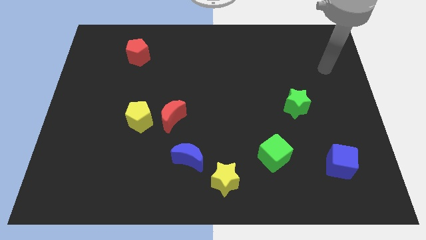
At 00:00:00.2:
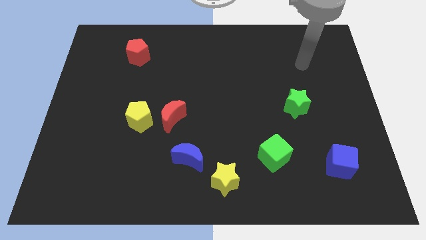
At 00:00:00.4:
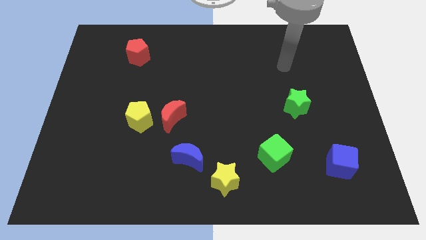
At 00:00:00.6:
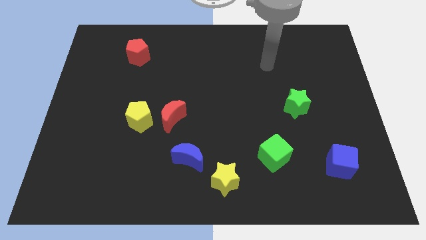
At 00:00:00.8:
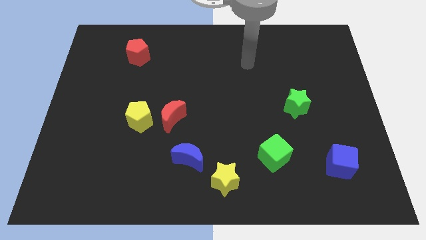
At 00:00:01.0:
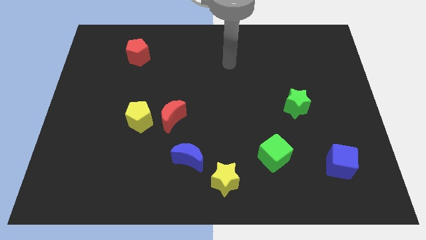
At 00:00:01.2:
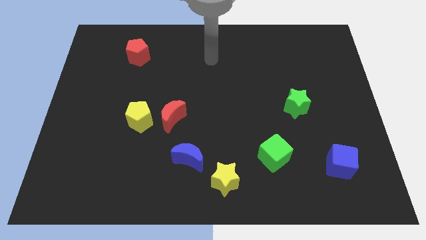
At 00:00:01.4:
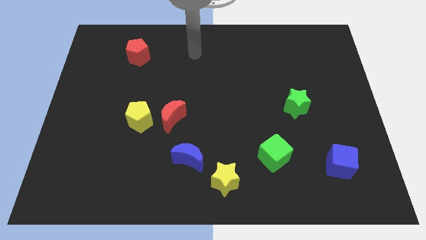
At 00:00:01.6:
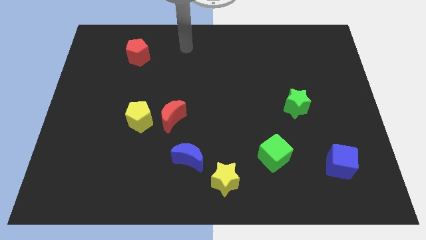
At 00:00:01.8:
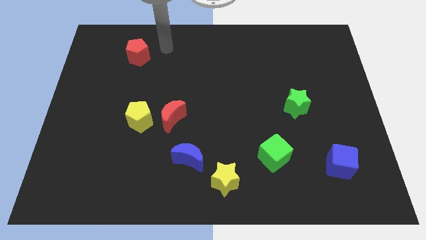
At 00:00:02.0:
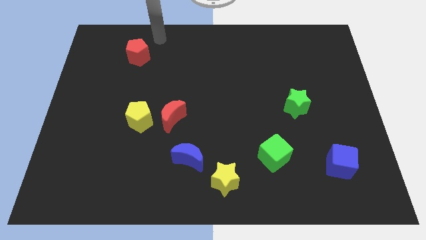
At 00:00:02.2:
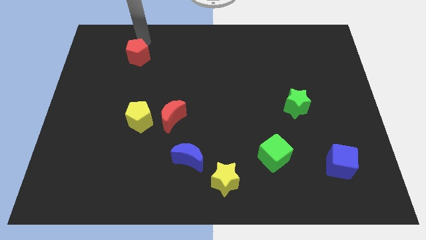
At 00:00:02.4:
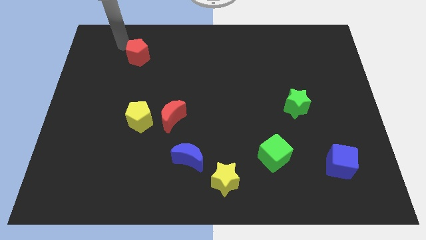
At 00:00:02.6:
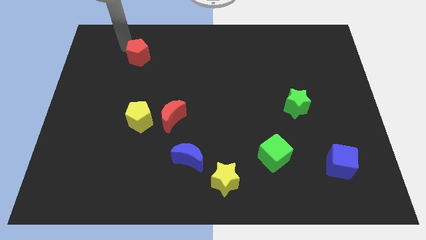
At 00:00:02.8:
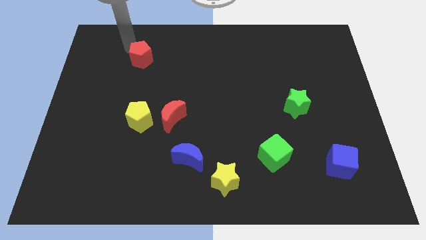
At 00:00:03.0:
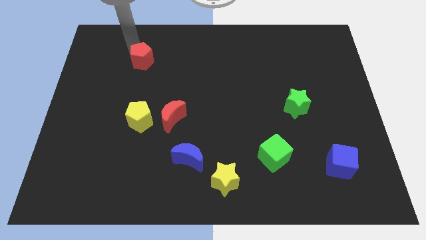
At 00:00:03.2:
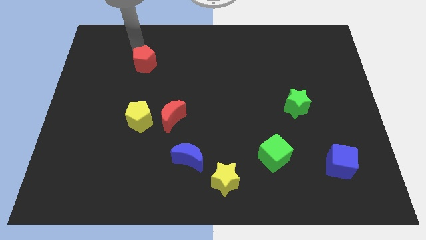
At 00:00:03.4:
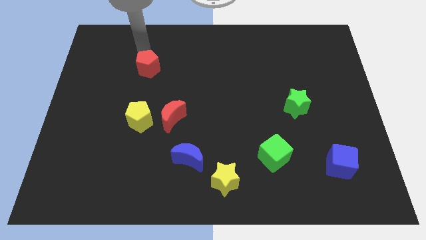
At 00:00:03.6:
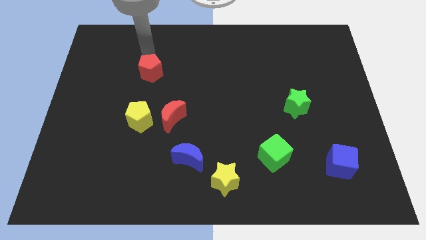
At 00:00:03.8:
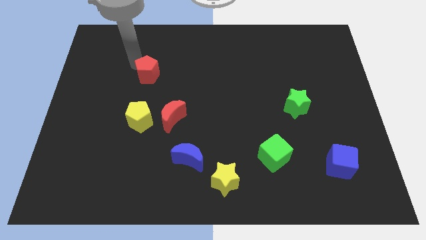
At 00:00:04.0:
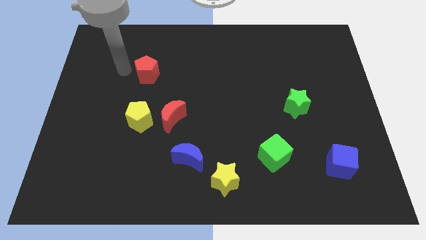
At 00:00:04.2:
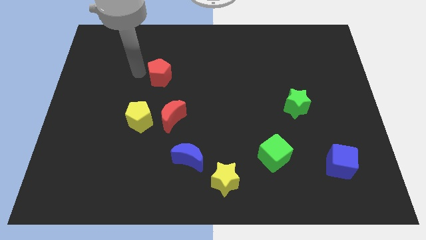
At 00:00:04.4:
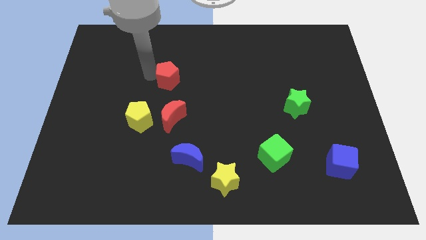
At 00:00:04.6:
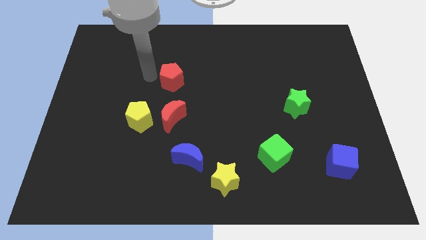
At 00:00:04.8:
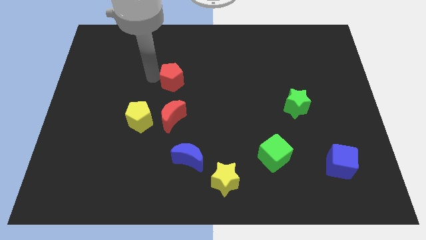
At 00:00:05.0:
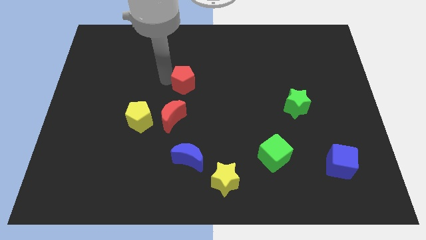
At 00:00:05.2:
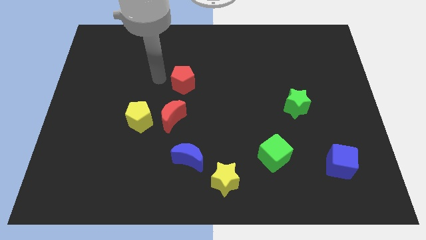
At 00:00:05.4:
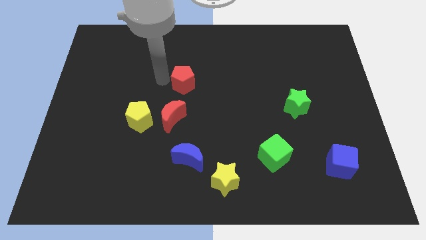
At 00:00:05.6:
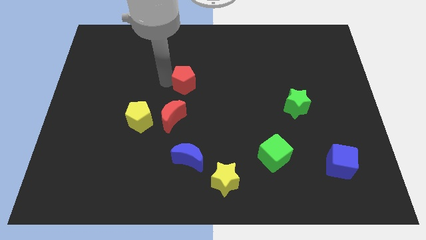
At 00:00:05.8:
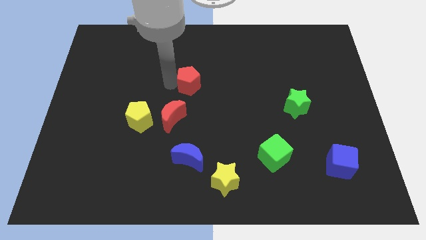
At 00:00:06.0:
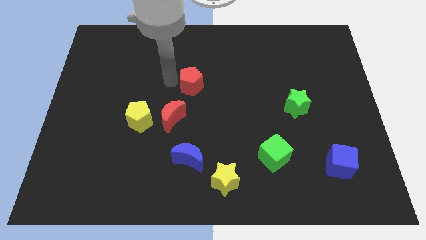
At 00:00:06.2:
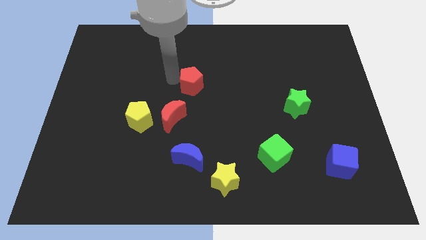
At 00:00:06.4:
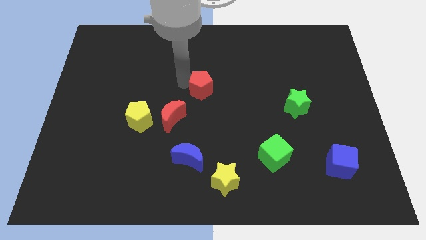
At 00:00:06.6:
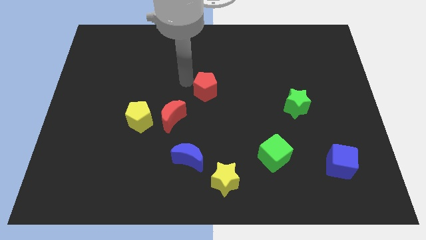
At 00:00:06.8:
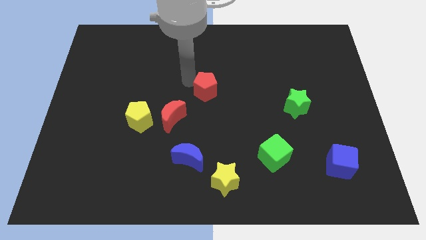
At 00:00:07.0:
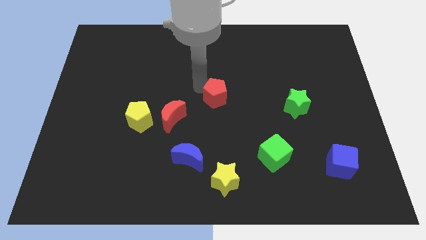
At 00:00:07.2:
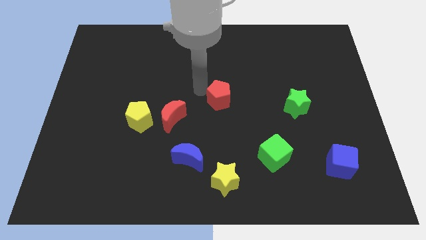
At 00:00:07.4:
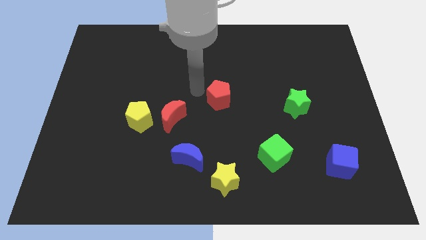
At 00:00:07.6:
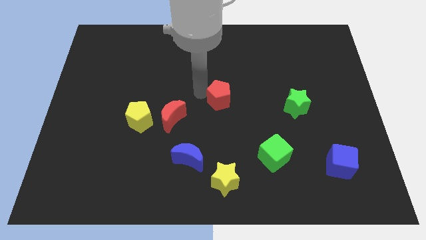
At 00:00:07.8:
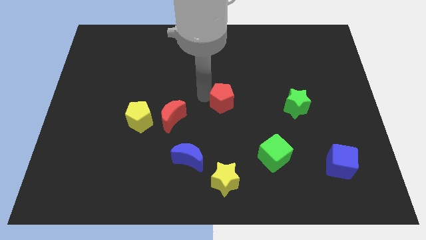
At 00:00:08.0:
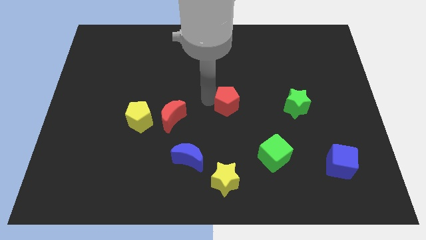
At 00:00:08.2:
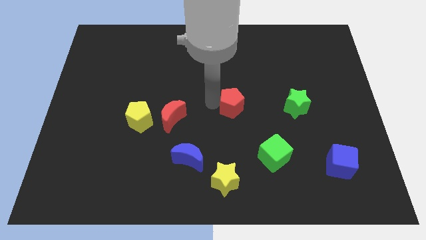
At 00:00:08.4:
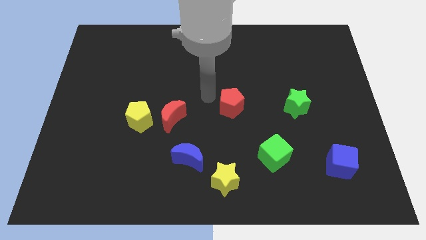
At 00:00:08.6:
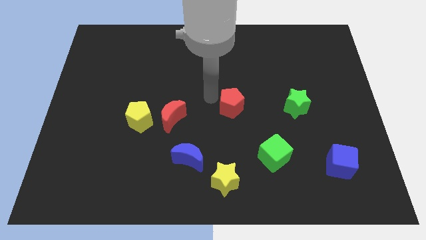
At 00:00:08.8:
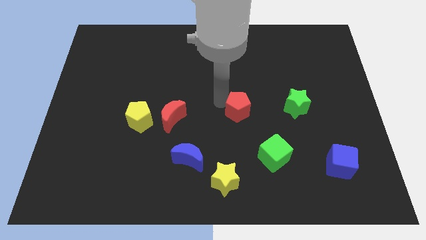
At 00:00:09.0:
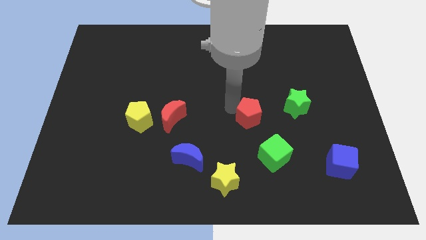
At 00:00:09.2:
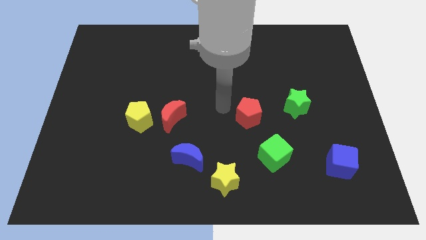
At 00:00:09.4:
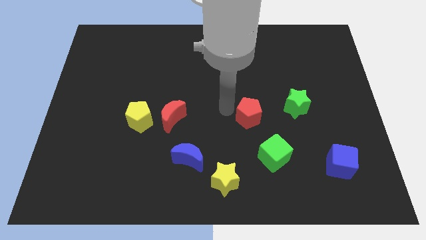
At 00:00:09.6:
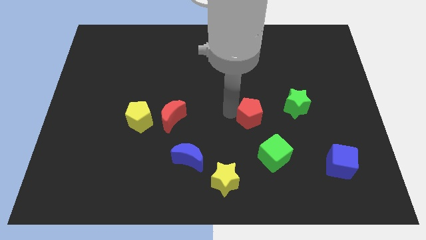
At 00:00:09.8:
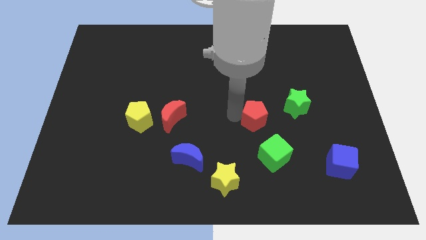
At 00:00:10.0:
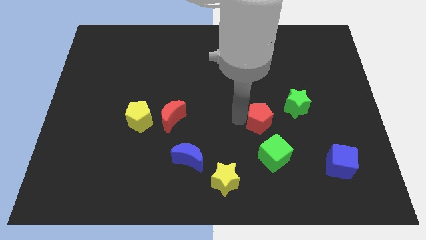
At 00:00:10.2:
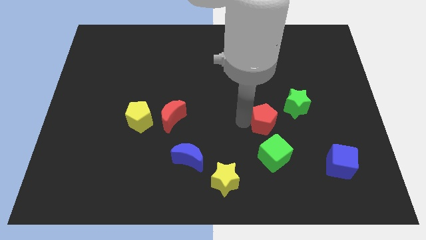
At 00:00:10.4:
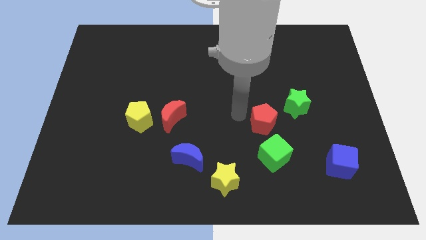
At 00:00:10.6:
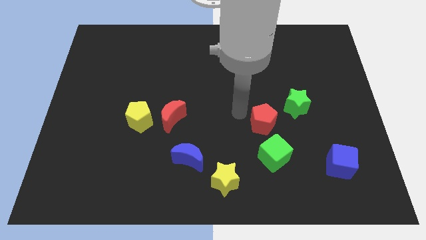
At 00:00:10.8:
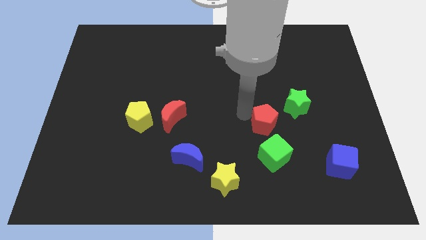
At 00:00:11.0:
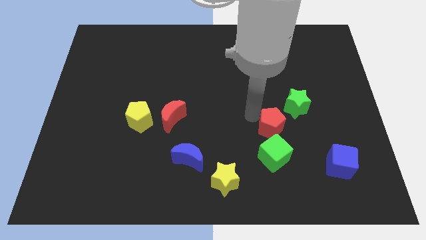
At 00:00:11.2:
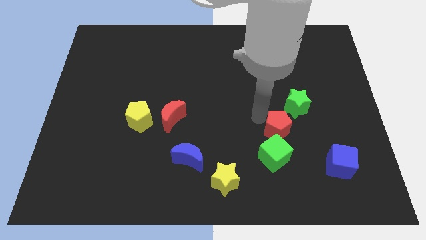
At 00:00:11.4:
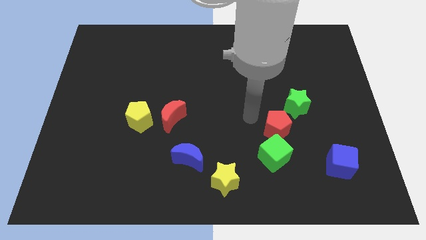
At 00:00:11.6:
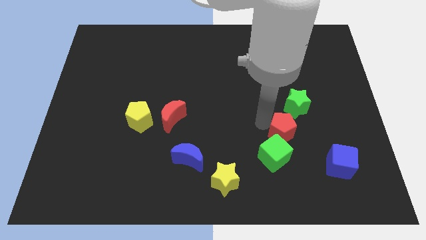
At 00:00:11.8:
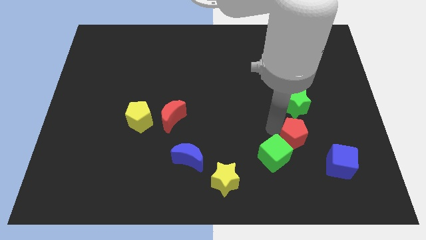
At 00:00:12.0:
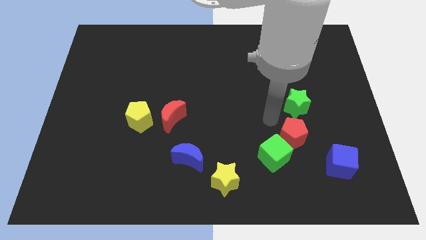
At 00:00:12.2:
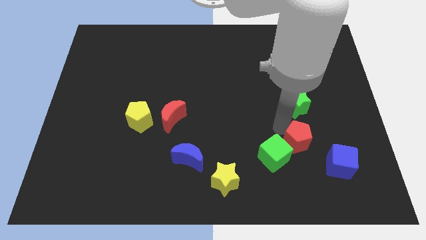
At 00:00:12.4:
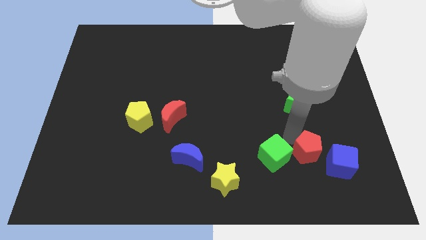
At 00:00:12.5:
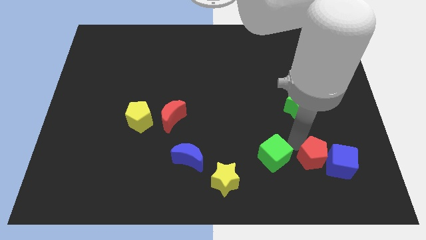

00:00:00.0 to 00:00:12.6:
push the red pentagon towards the blue cube
